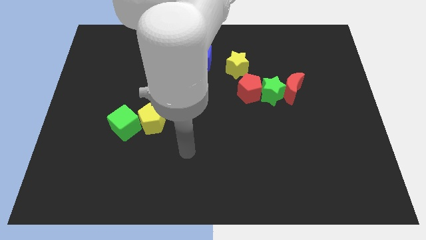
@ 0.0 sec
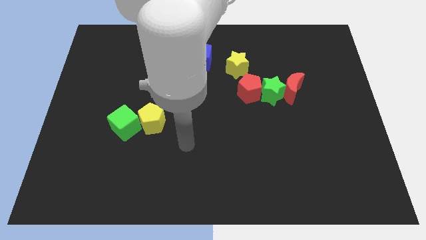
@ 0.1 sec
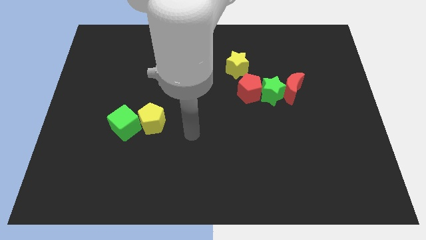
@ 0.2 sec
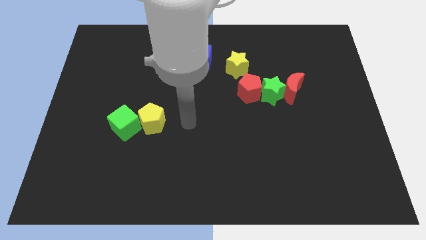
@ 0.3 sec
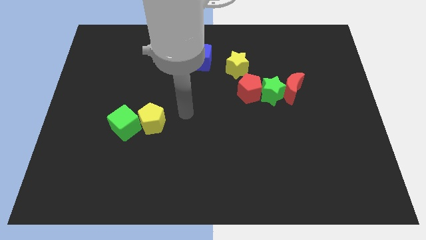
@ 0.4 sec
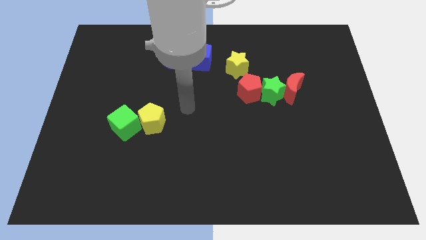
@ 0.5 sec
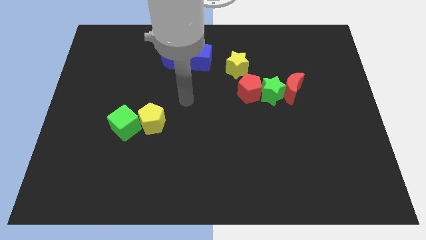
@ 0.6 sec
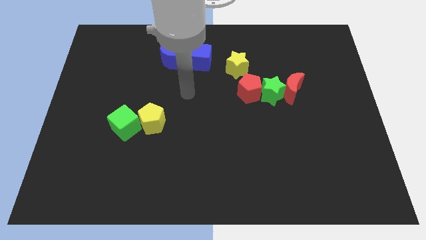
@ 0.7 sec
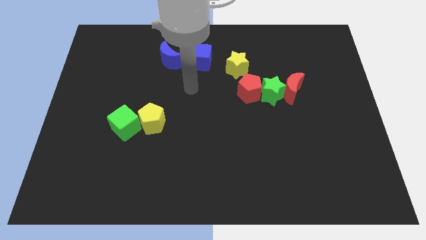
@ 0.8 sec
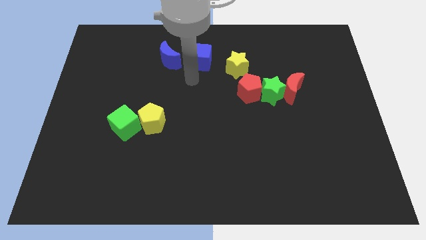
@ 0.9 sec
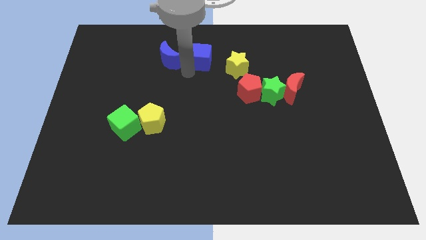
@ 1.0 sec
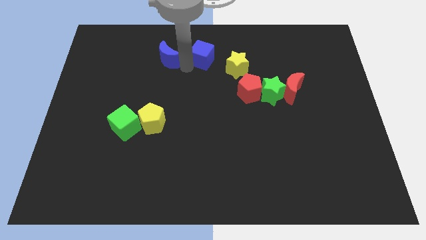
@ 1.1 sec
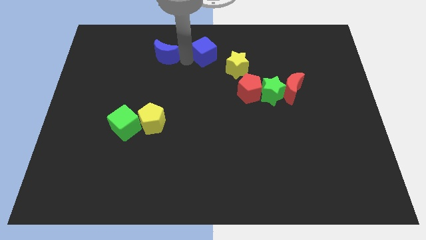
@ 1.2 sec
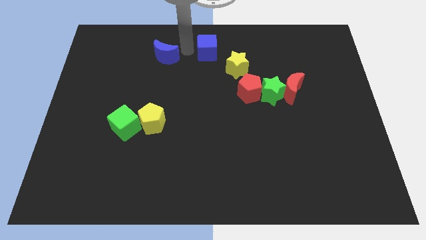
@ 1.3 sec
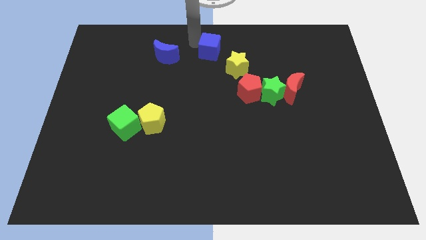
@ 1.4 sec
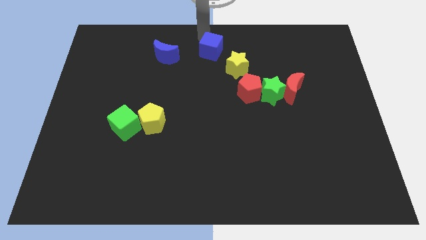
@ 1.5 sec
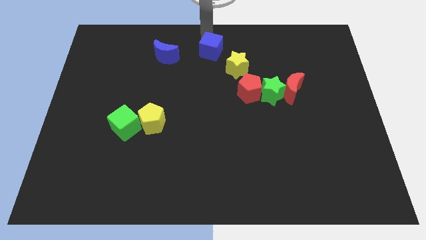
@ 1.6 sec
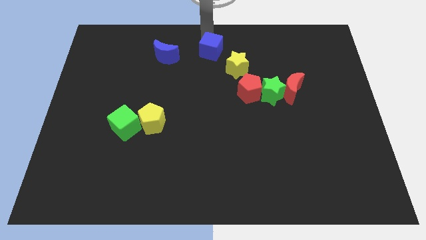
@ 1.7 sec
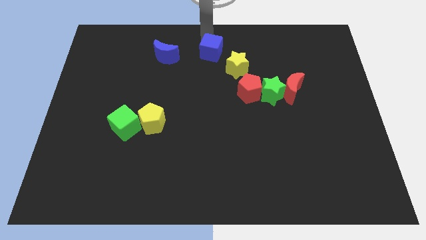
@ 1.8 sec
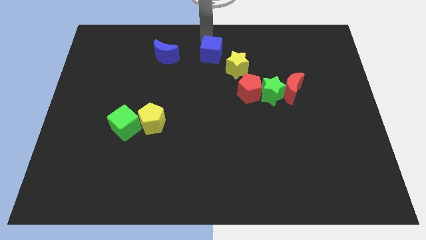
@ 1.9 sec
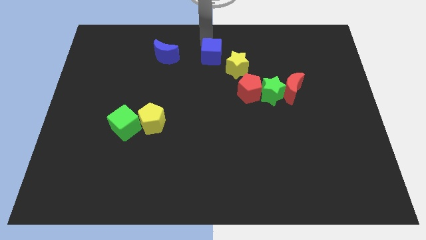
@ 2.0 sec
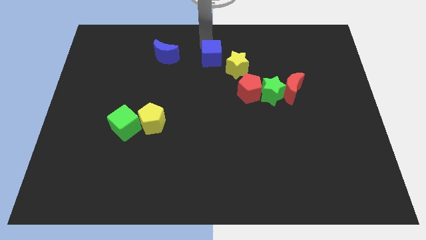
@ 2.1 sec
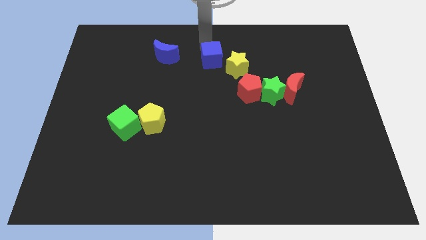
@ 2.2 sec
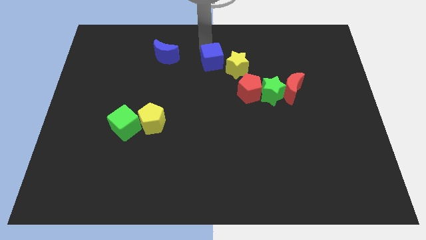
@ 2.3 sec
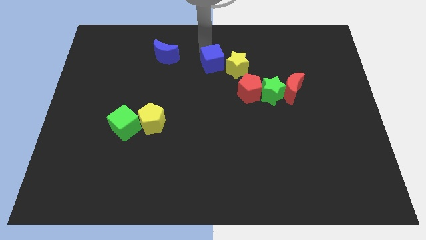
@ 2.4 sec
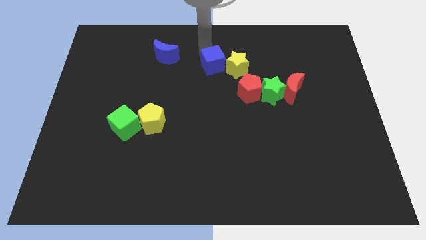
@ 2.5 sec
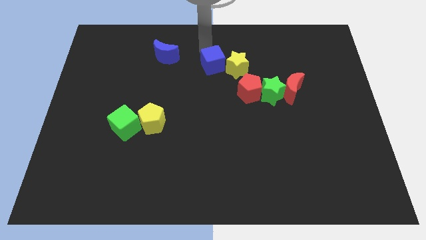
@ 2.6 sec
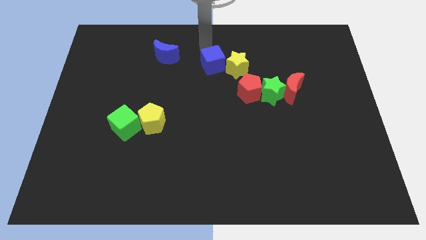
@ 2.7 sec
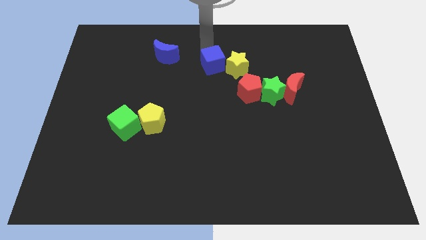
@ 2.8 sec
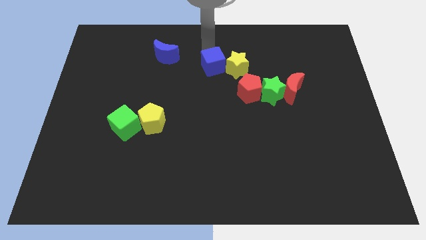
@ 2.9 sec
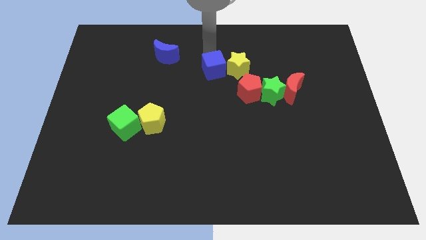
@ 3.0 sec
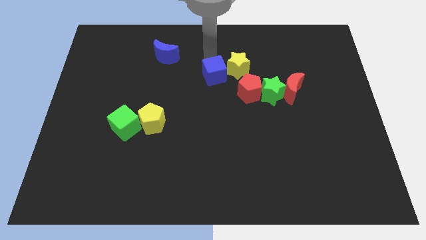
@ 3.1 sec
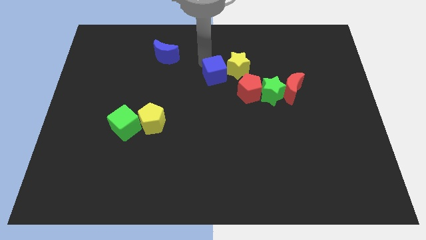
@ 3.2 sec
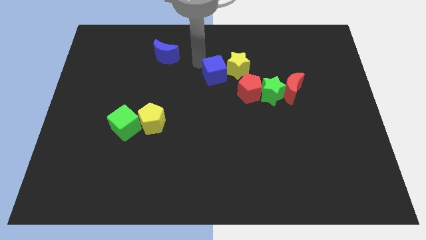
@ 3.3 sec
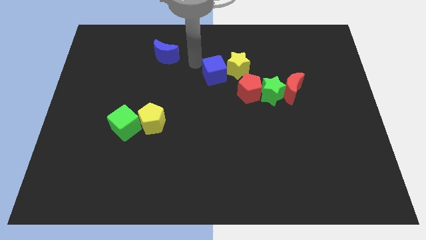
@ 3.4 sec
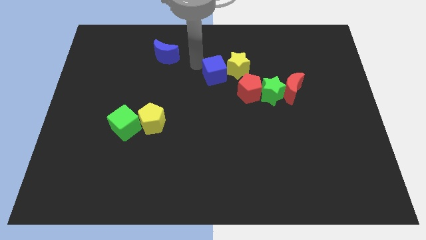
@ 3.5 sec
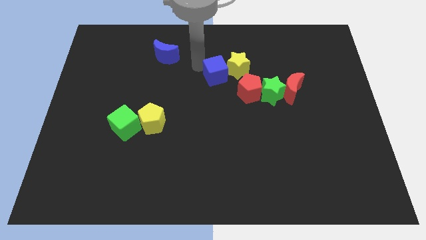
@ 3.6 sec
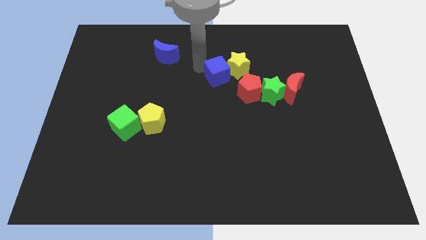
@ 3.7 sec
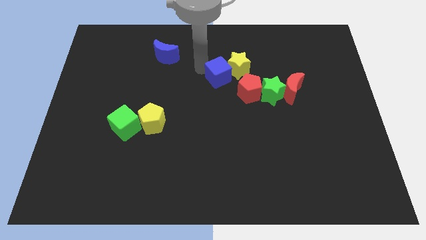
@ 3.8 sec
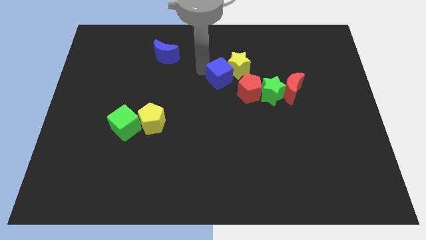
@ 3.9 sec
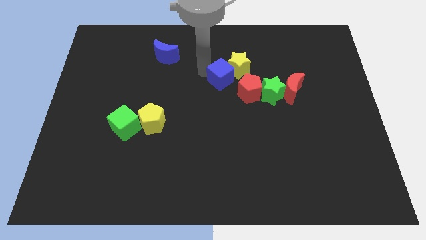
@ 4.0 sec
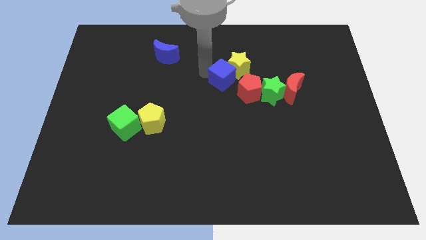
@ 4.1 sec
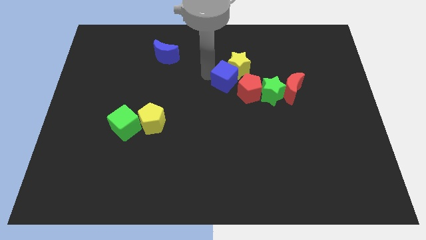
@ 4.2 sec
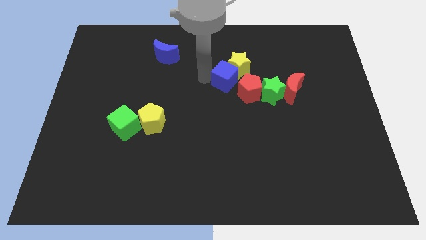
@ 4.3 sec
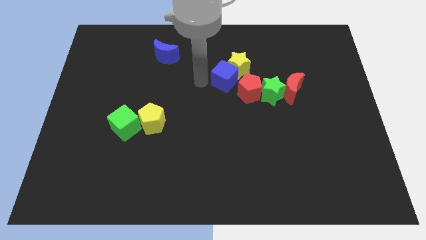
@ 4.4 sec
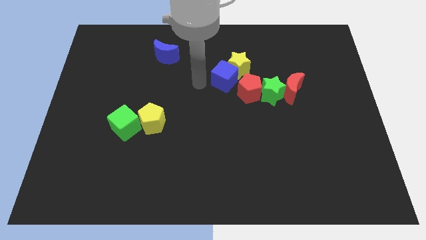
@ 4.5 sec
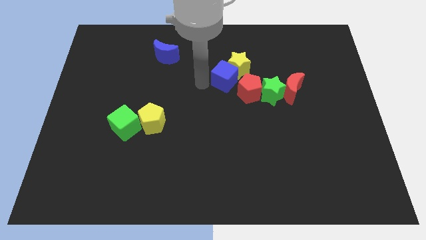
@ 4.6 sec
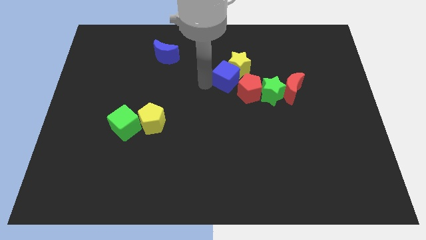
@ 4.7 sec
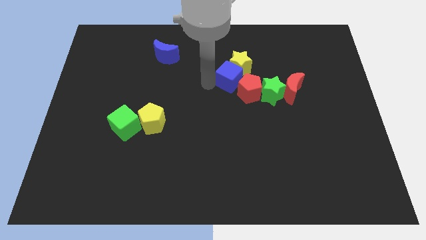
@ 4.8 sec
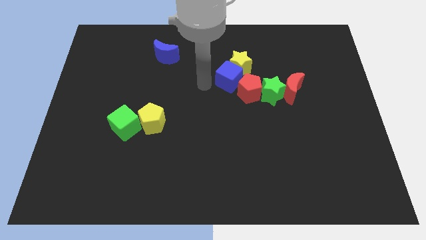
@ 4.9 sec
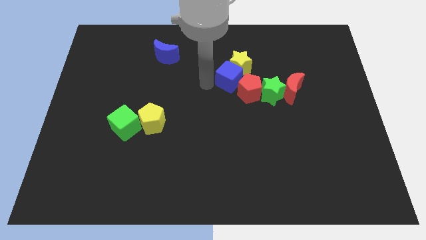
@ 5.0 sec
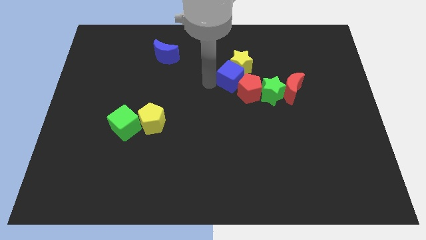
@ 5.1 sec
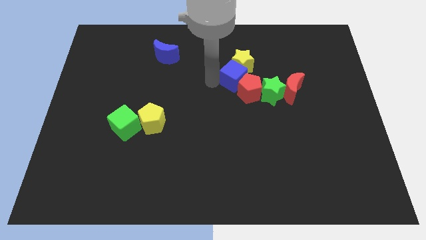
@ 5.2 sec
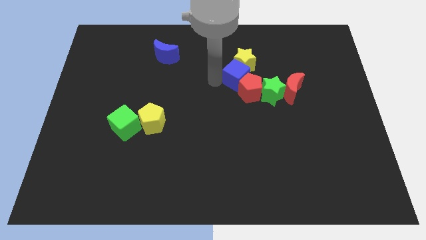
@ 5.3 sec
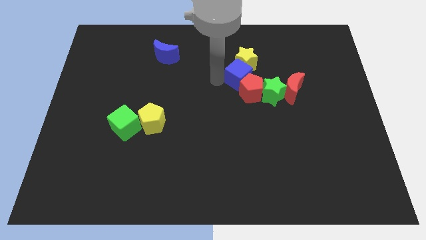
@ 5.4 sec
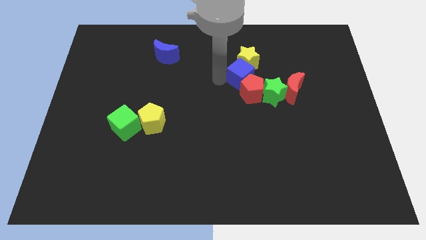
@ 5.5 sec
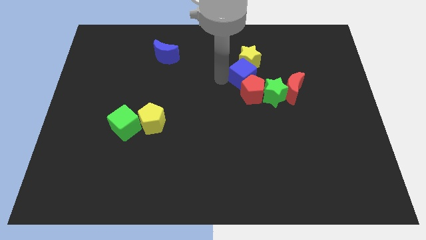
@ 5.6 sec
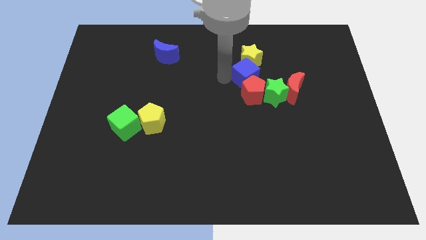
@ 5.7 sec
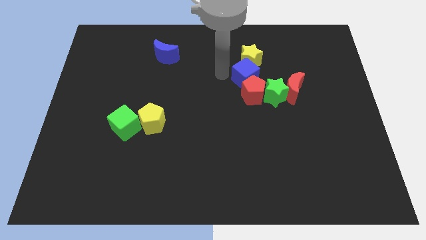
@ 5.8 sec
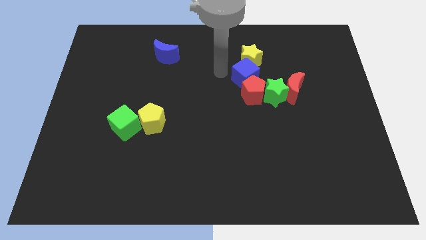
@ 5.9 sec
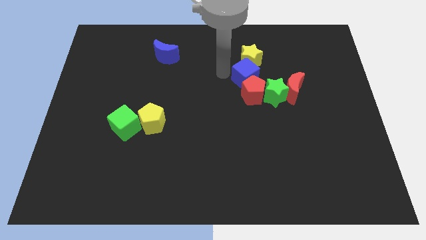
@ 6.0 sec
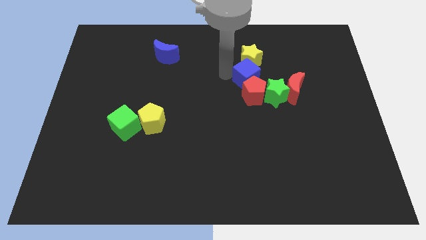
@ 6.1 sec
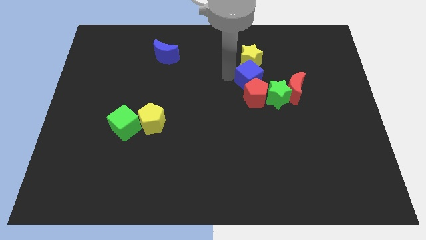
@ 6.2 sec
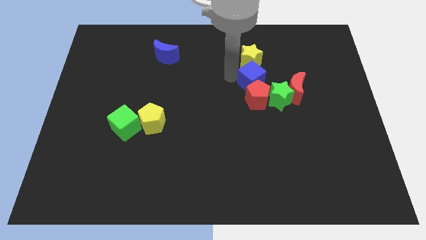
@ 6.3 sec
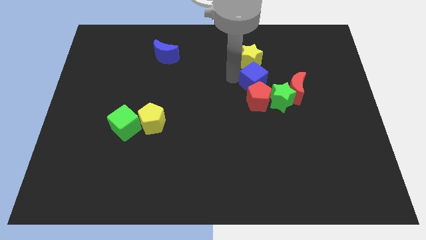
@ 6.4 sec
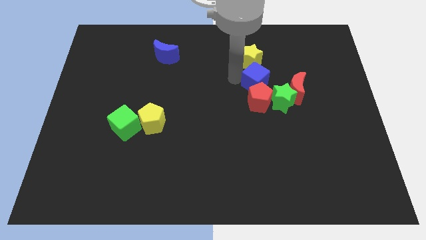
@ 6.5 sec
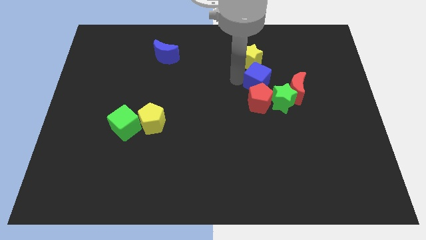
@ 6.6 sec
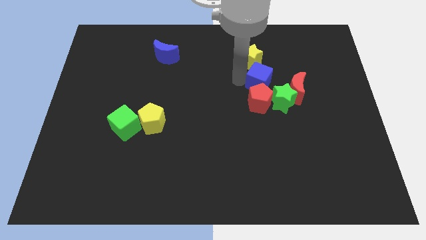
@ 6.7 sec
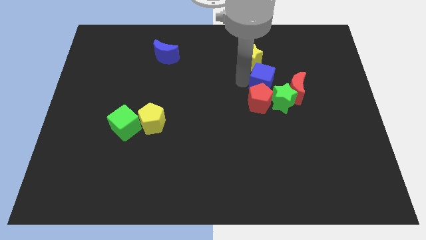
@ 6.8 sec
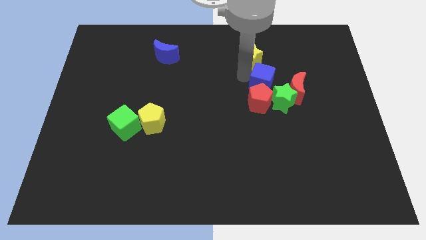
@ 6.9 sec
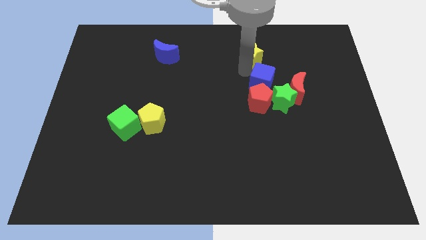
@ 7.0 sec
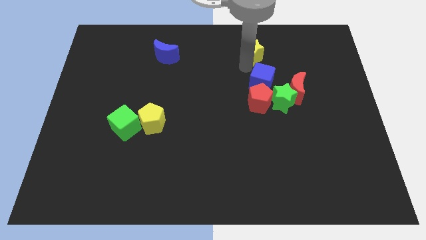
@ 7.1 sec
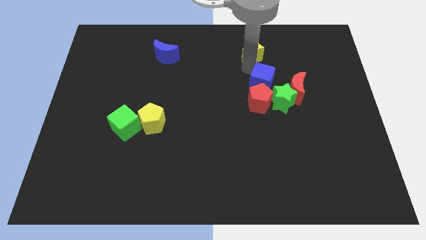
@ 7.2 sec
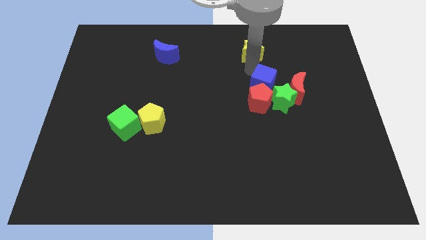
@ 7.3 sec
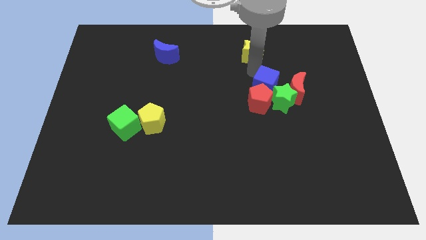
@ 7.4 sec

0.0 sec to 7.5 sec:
put the blue cube towards the green star
